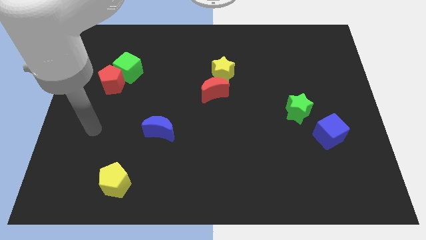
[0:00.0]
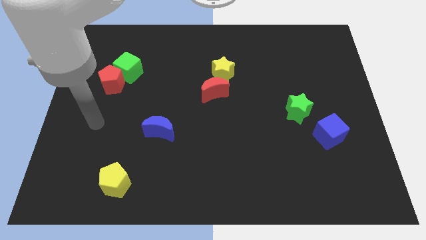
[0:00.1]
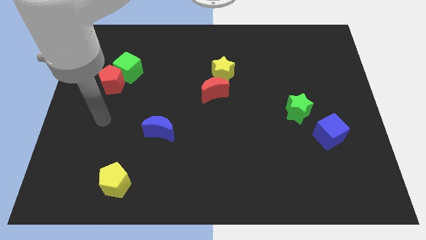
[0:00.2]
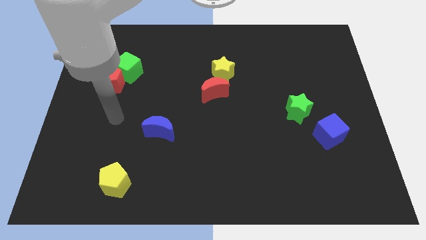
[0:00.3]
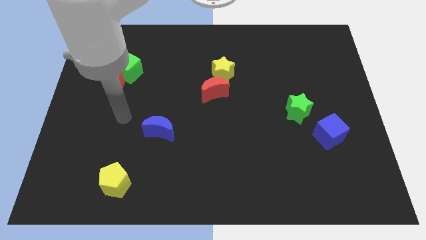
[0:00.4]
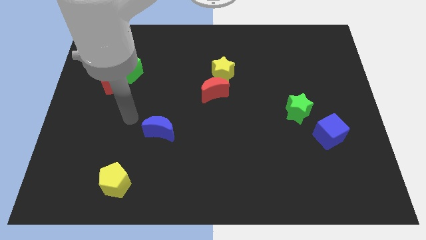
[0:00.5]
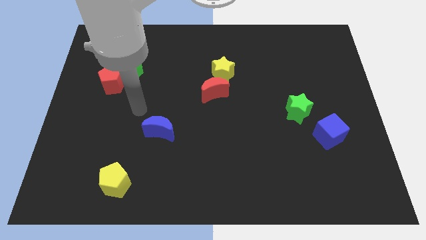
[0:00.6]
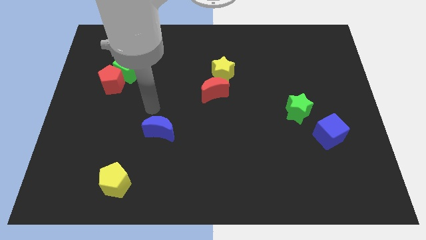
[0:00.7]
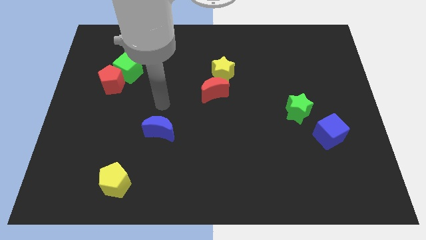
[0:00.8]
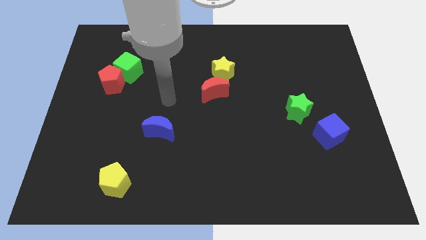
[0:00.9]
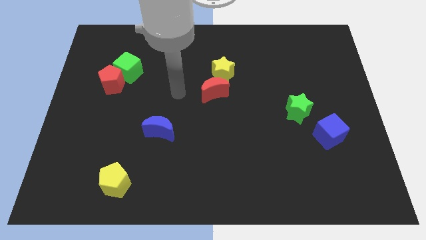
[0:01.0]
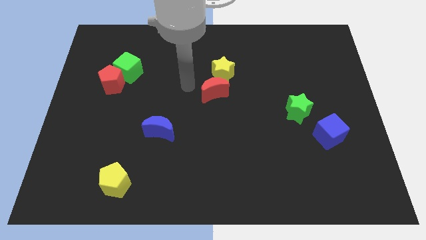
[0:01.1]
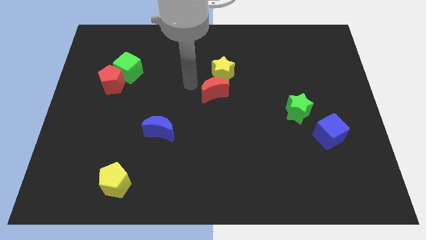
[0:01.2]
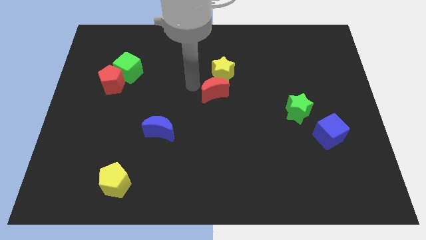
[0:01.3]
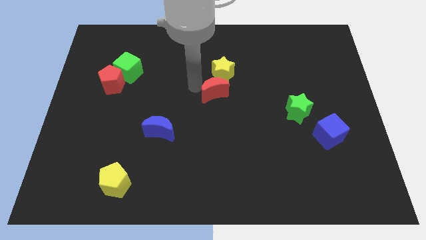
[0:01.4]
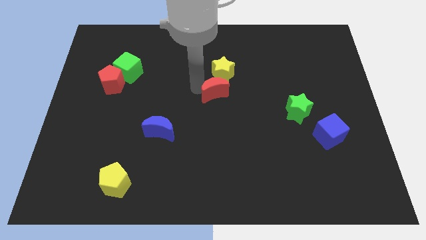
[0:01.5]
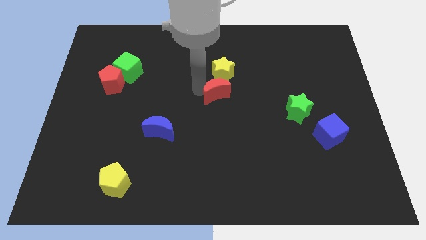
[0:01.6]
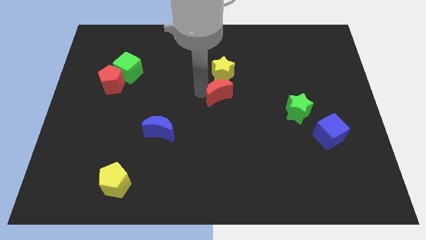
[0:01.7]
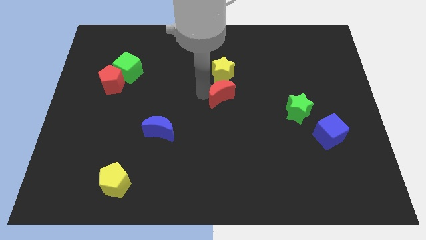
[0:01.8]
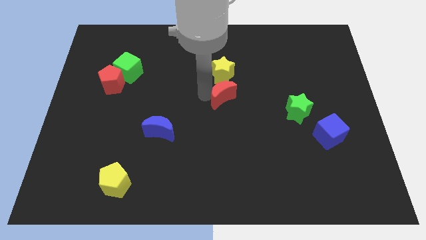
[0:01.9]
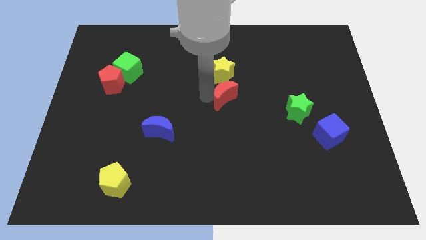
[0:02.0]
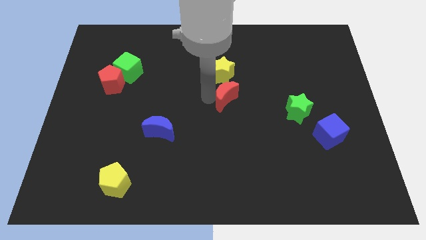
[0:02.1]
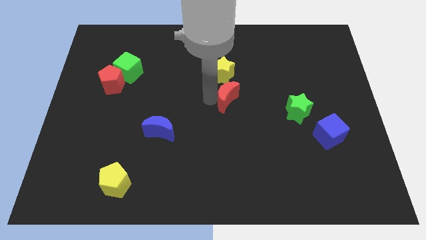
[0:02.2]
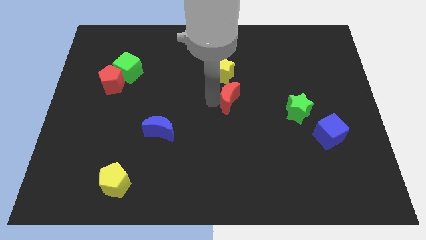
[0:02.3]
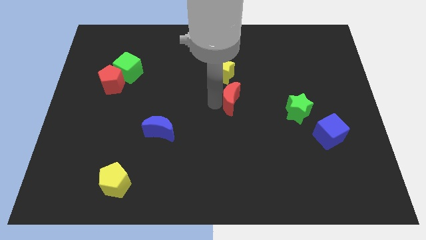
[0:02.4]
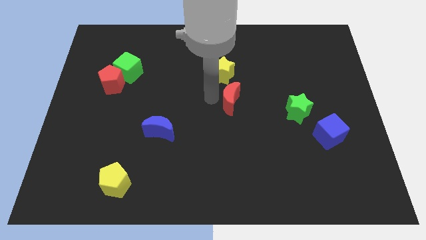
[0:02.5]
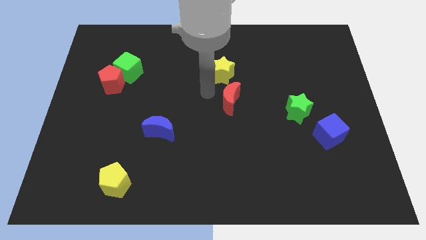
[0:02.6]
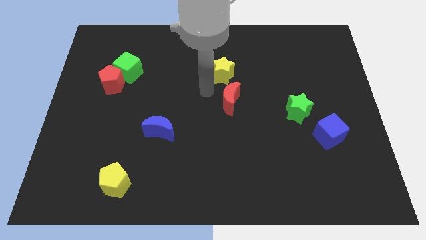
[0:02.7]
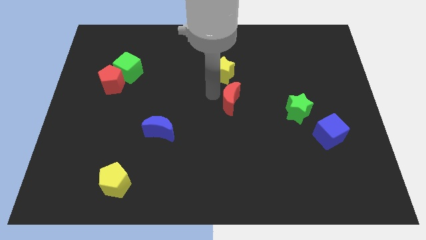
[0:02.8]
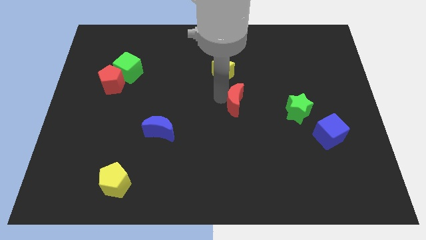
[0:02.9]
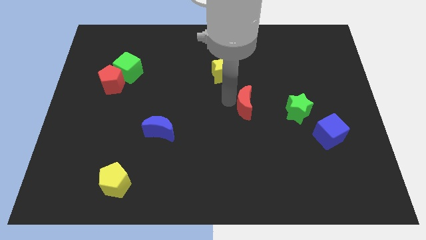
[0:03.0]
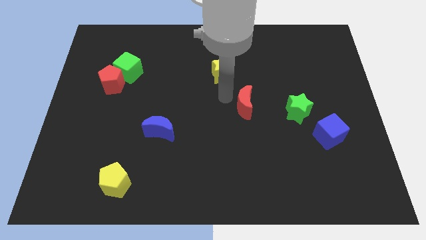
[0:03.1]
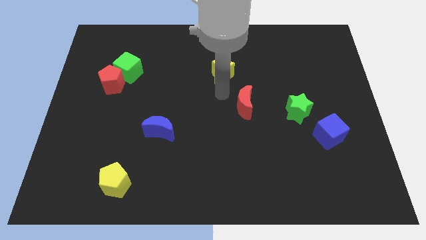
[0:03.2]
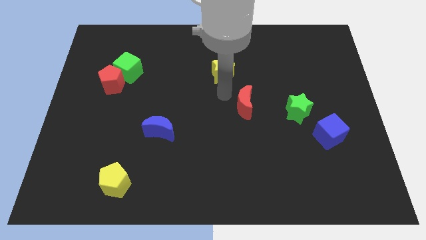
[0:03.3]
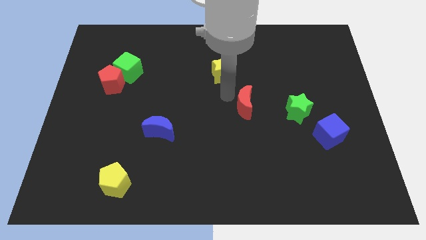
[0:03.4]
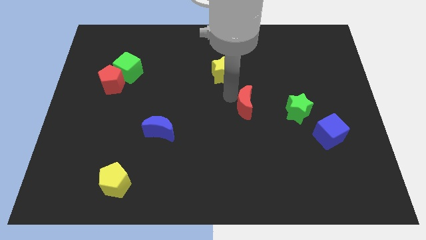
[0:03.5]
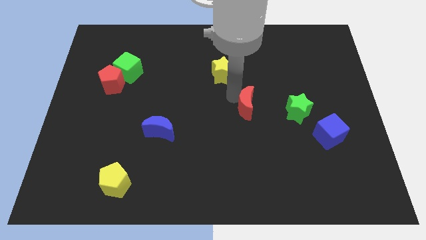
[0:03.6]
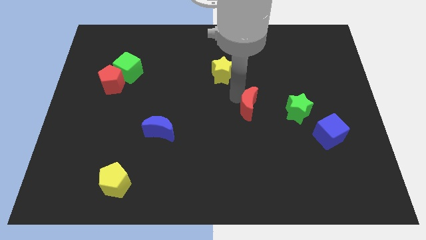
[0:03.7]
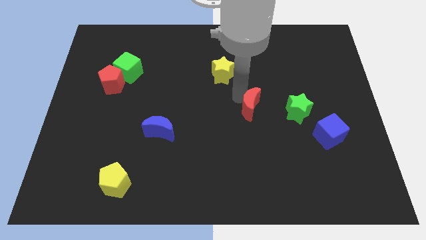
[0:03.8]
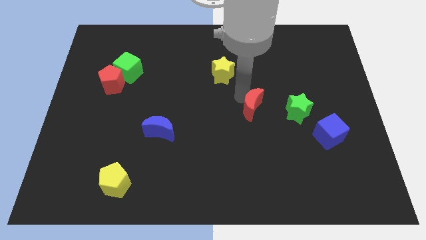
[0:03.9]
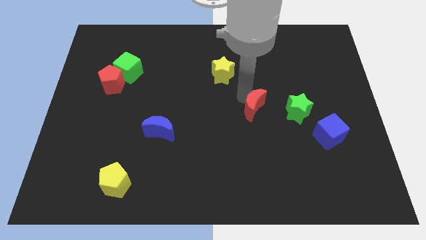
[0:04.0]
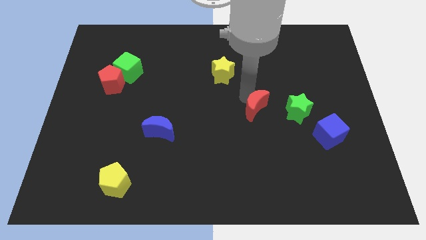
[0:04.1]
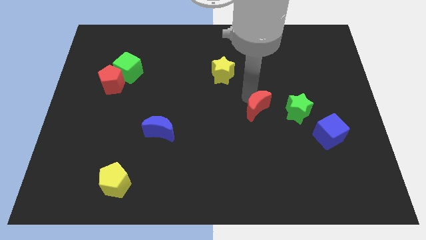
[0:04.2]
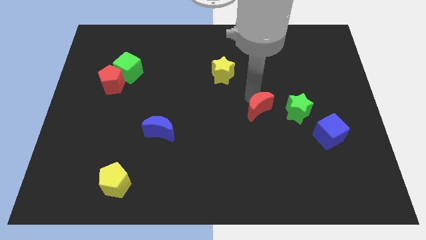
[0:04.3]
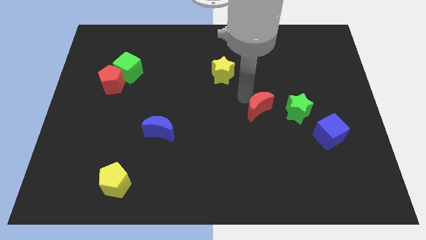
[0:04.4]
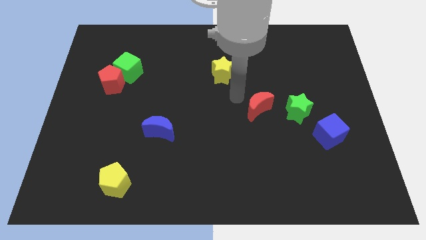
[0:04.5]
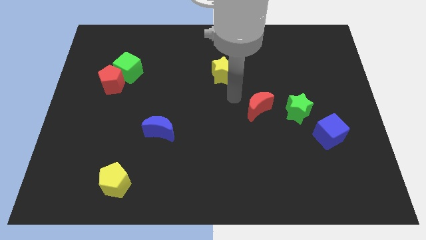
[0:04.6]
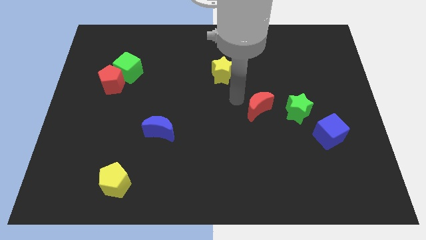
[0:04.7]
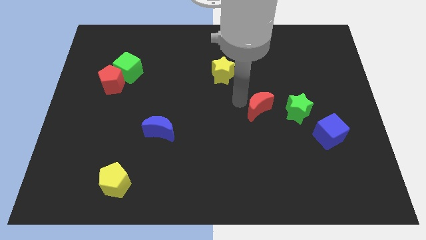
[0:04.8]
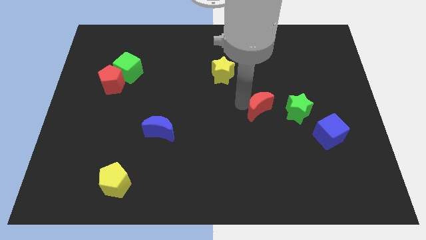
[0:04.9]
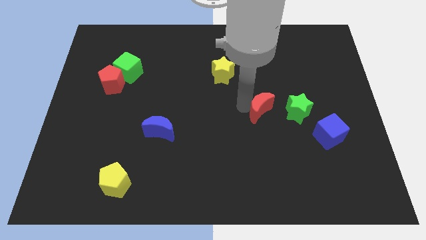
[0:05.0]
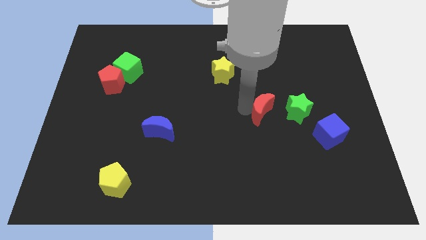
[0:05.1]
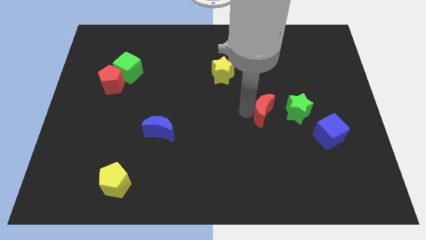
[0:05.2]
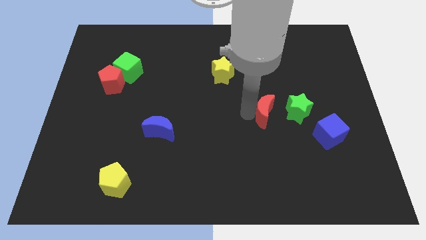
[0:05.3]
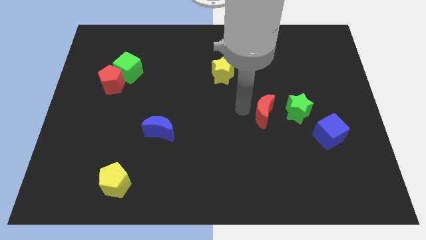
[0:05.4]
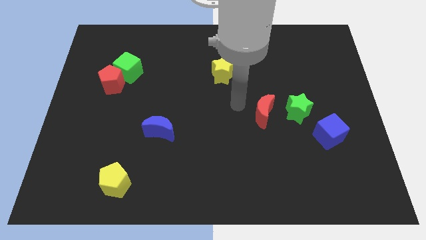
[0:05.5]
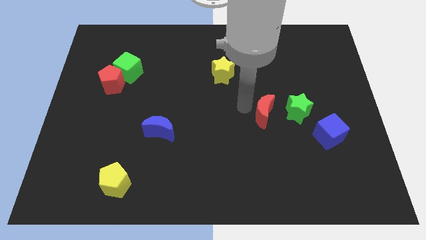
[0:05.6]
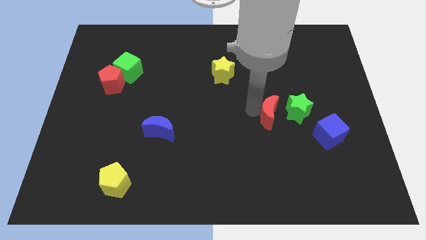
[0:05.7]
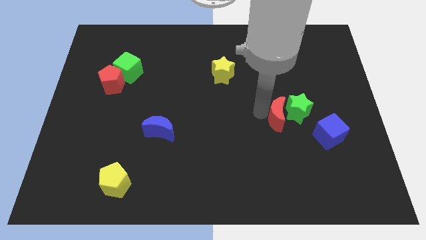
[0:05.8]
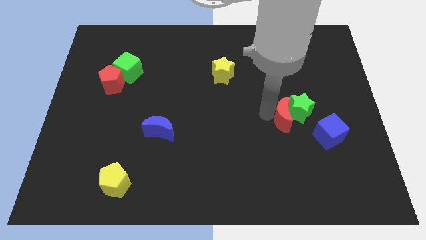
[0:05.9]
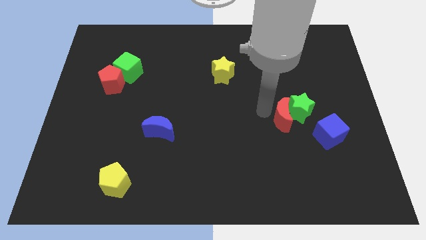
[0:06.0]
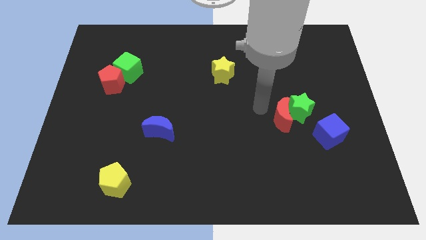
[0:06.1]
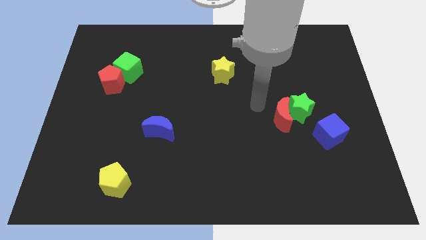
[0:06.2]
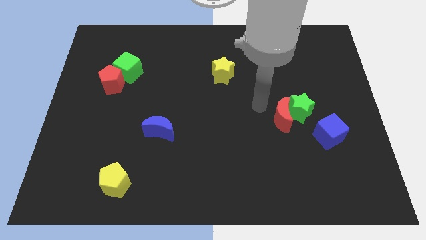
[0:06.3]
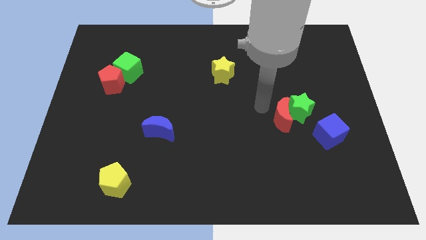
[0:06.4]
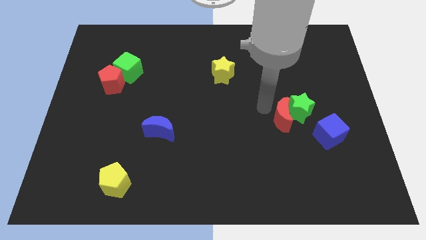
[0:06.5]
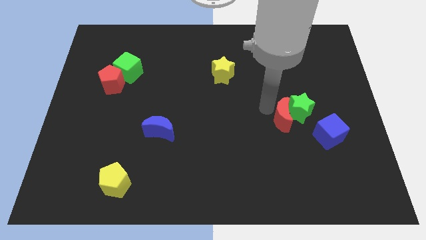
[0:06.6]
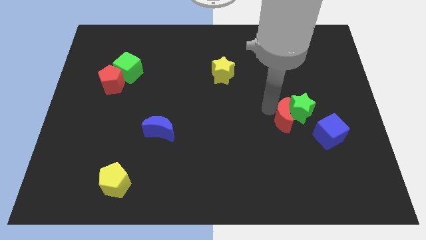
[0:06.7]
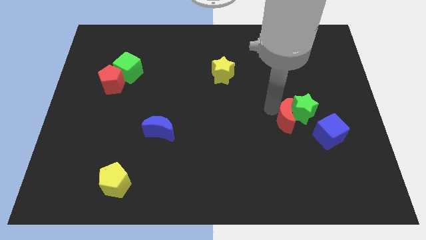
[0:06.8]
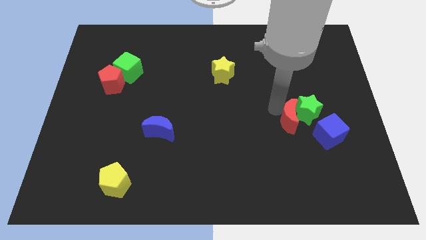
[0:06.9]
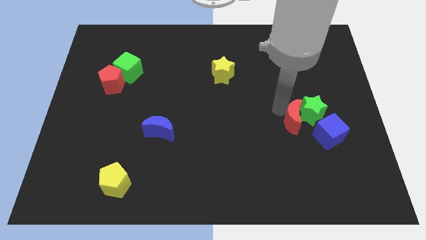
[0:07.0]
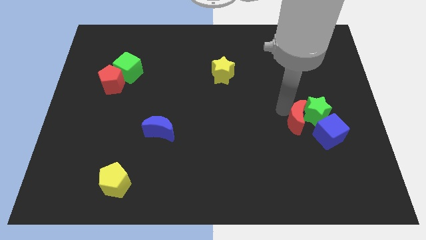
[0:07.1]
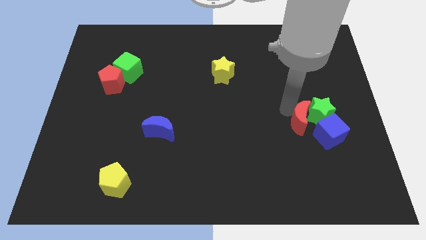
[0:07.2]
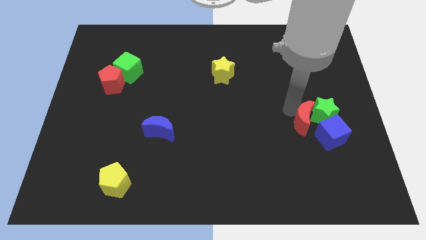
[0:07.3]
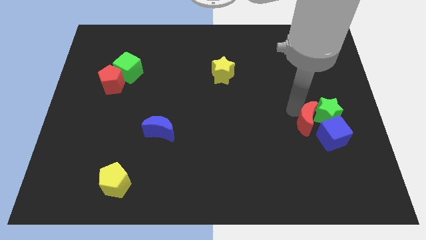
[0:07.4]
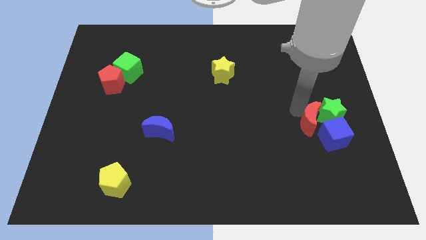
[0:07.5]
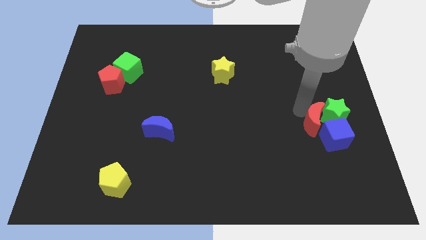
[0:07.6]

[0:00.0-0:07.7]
push the red moon next to the blue cube

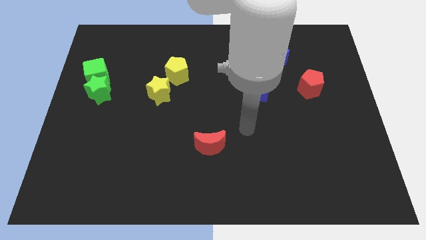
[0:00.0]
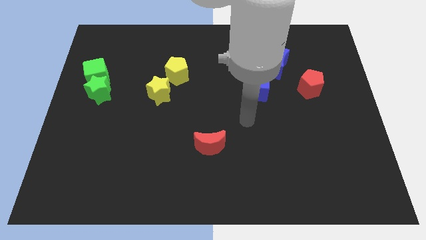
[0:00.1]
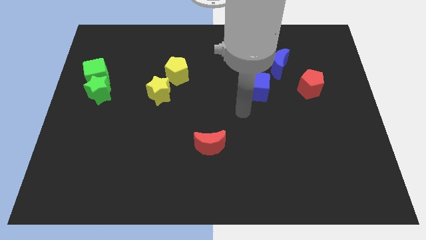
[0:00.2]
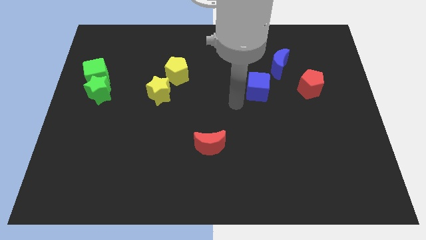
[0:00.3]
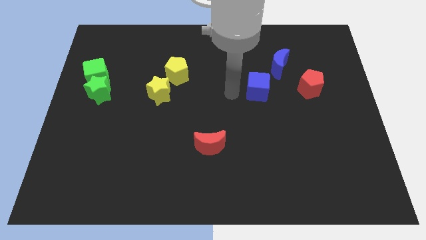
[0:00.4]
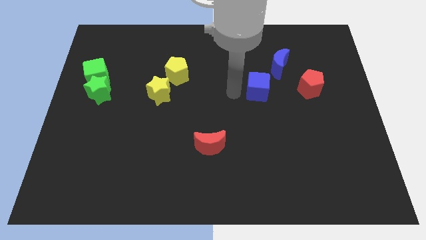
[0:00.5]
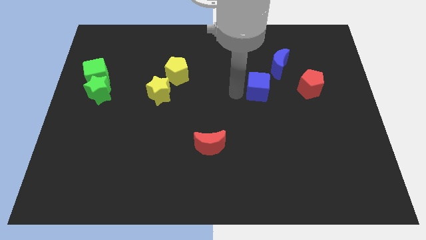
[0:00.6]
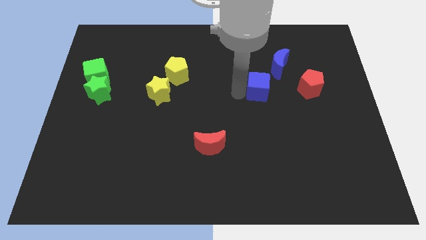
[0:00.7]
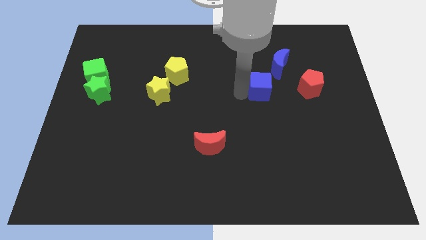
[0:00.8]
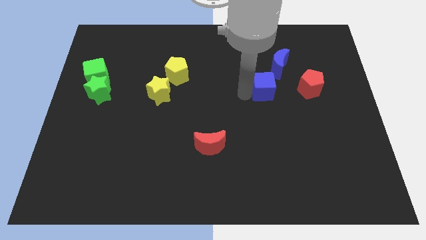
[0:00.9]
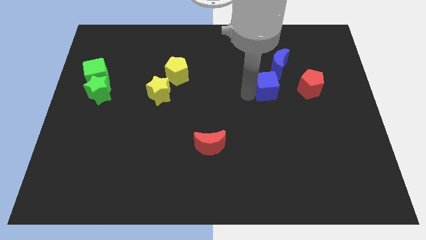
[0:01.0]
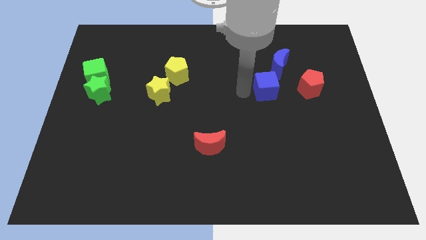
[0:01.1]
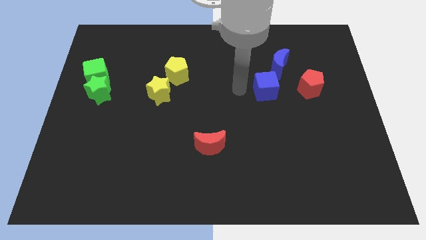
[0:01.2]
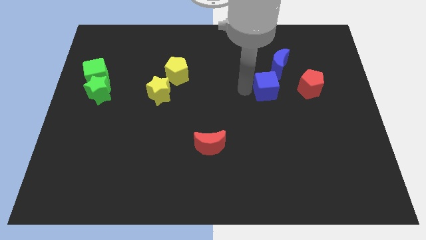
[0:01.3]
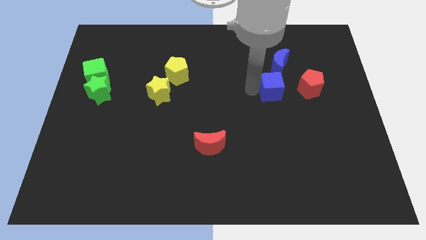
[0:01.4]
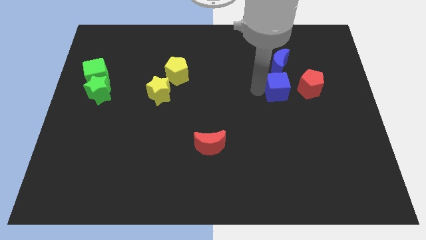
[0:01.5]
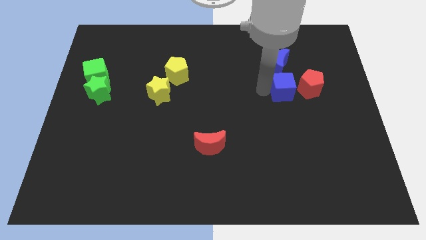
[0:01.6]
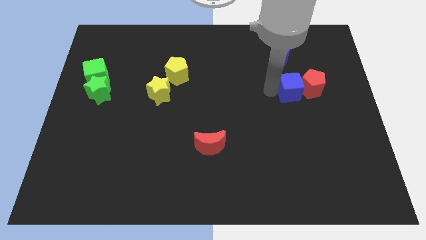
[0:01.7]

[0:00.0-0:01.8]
push the blue cube next to the red pentagon
